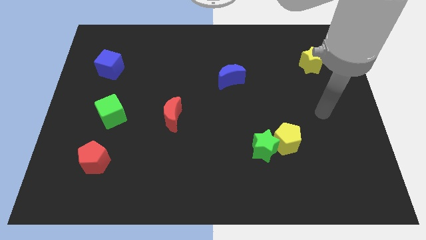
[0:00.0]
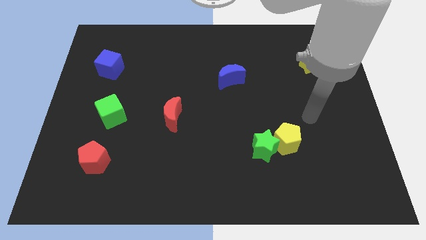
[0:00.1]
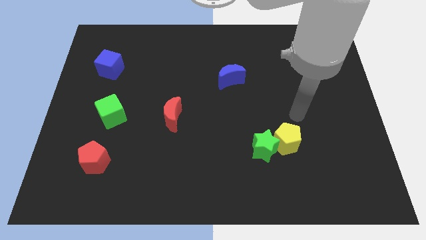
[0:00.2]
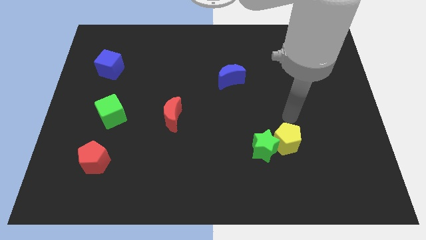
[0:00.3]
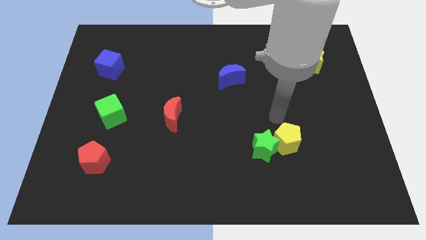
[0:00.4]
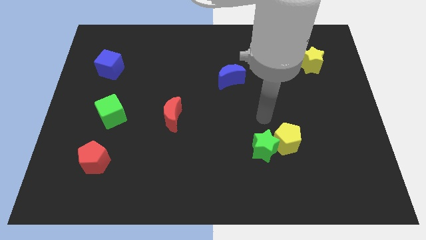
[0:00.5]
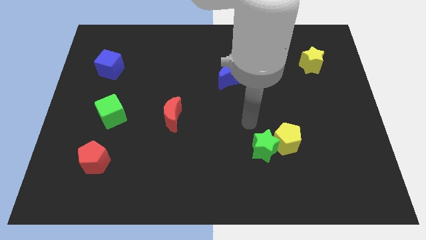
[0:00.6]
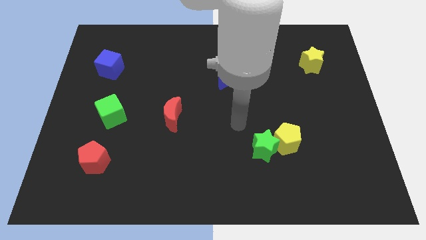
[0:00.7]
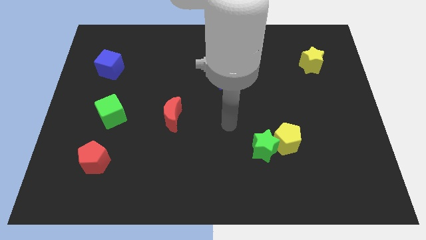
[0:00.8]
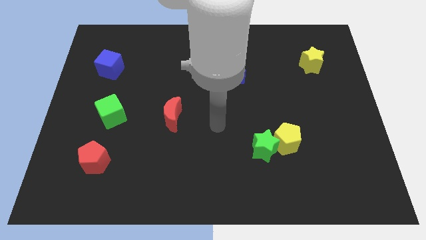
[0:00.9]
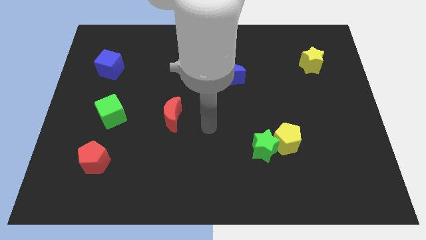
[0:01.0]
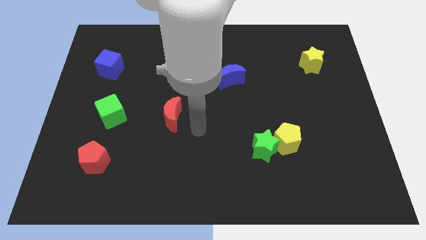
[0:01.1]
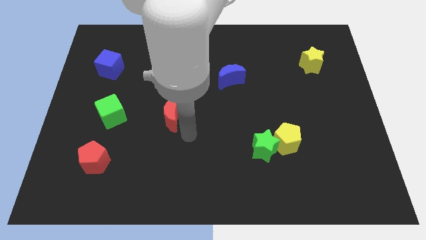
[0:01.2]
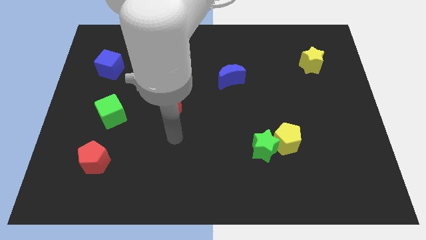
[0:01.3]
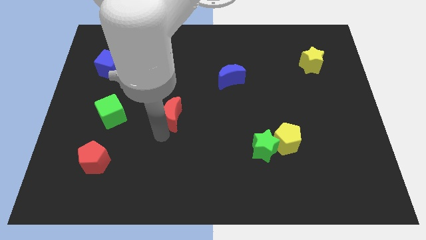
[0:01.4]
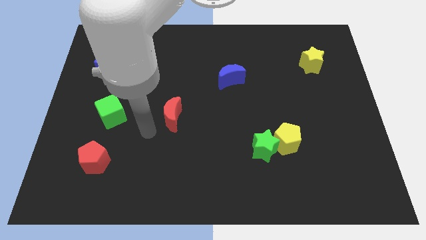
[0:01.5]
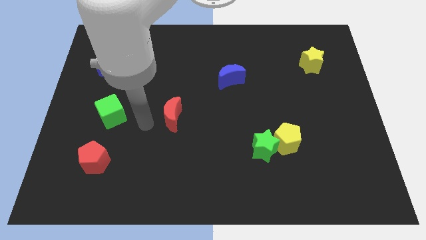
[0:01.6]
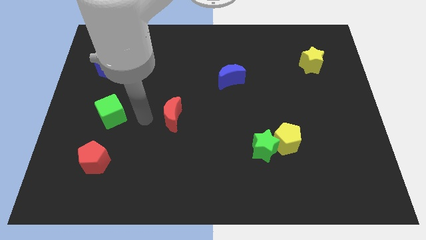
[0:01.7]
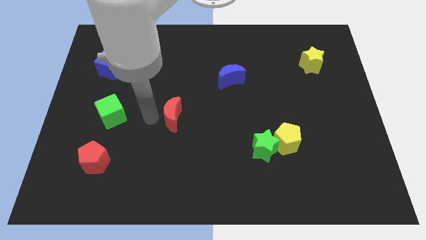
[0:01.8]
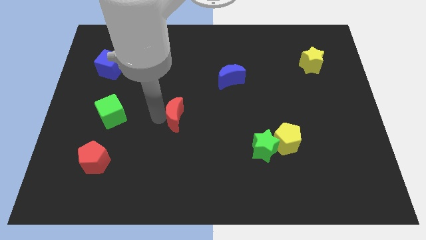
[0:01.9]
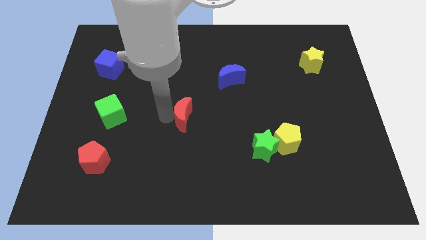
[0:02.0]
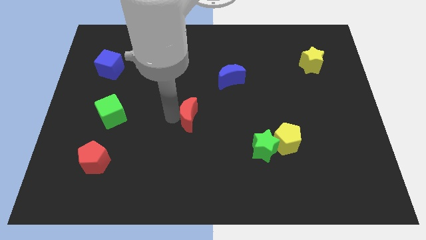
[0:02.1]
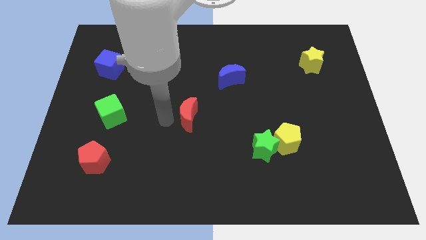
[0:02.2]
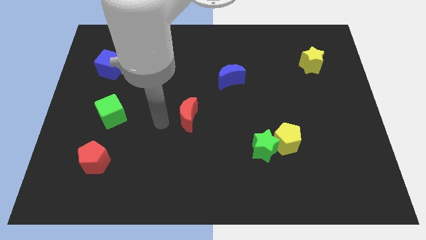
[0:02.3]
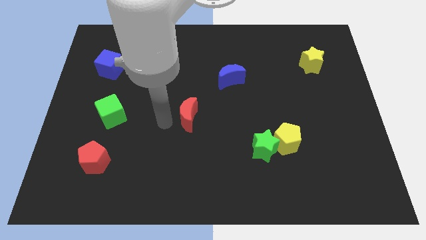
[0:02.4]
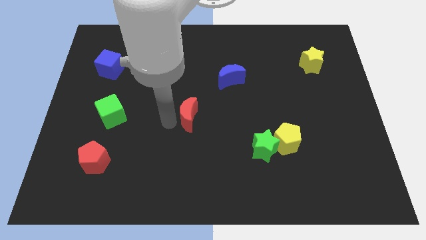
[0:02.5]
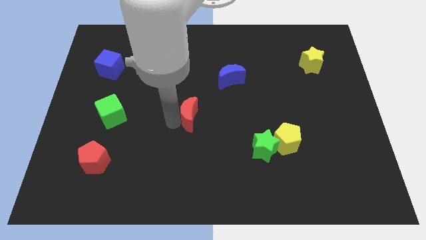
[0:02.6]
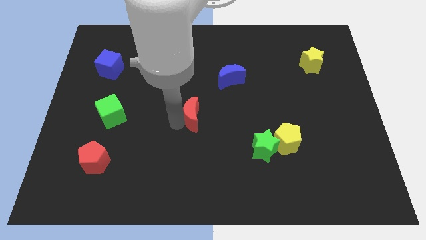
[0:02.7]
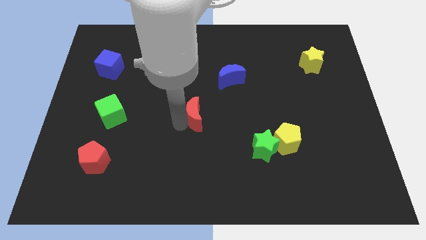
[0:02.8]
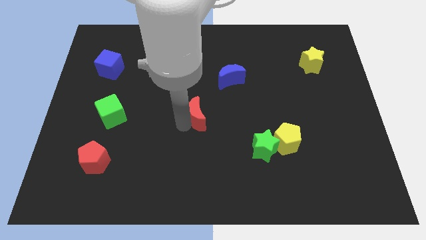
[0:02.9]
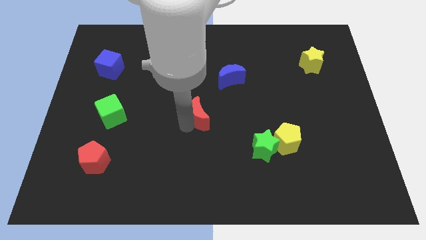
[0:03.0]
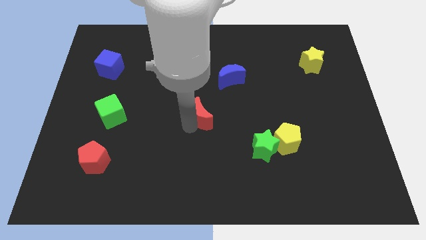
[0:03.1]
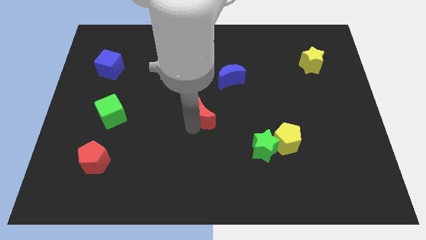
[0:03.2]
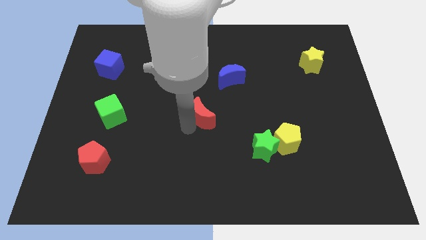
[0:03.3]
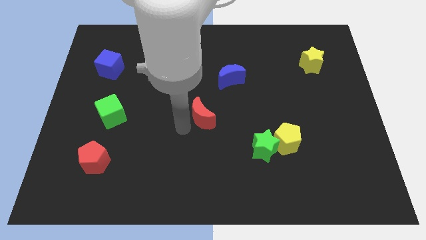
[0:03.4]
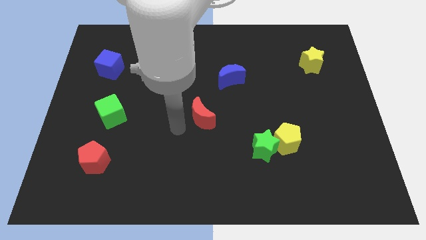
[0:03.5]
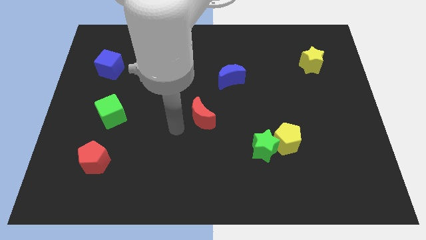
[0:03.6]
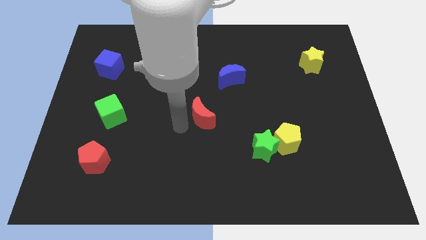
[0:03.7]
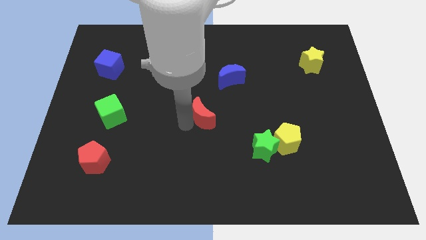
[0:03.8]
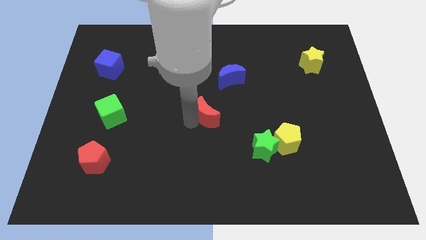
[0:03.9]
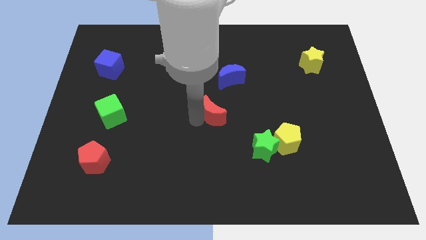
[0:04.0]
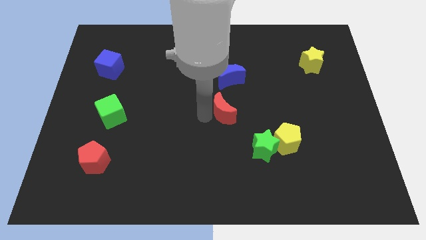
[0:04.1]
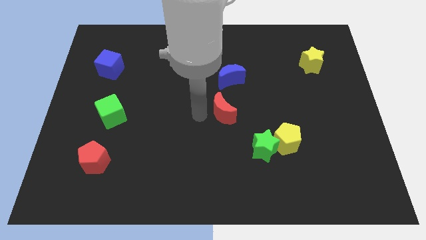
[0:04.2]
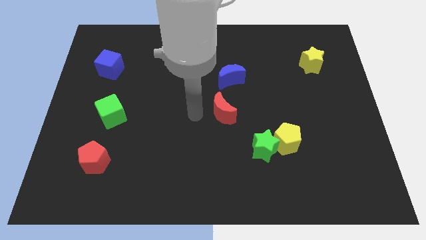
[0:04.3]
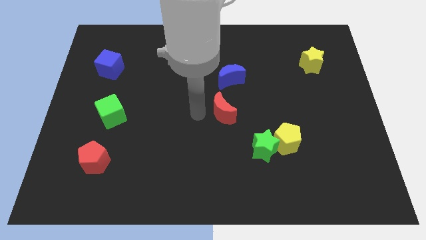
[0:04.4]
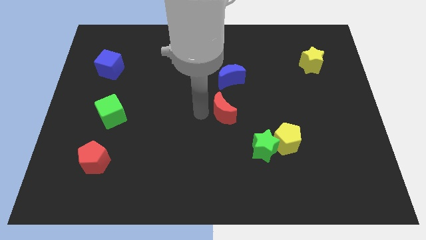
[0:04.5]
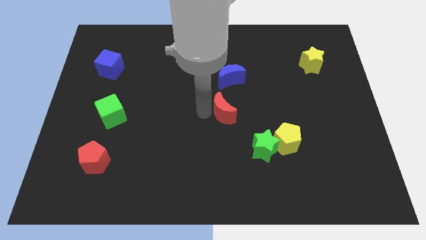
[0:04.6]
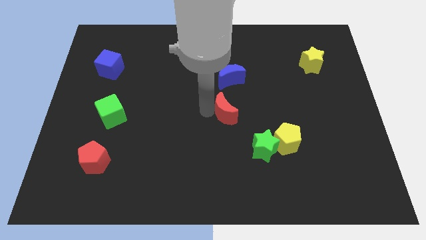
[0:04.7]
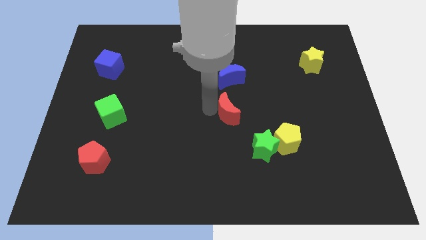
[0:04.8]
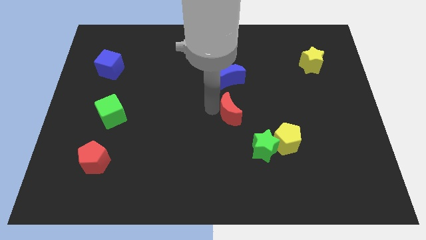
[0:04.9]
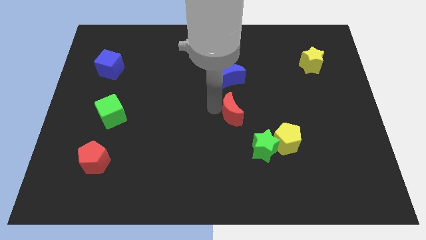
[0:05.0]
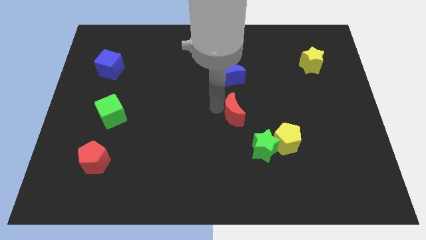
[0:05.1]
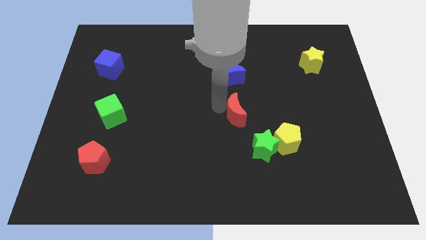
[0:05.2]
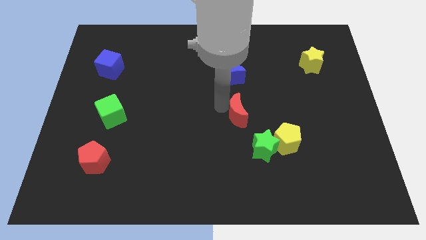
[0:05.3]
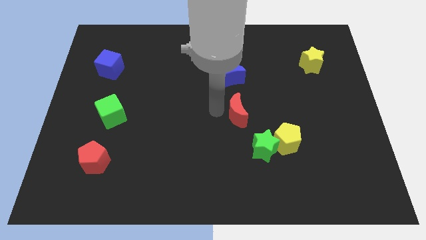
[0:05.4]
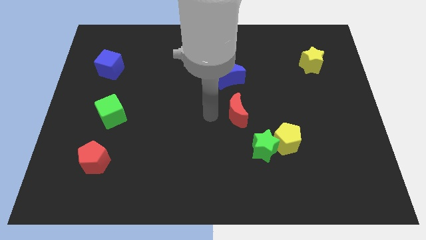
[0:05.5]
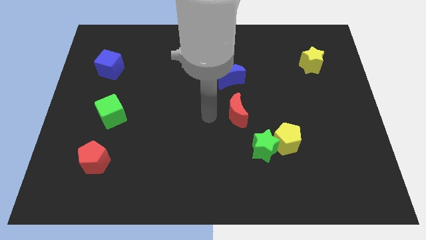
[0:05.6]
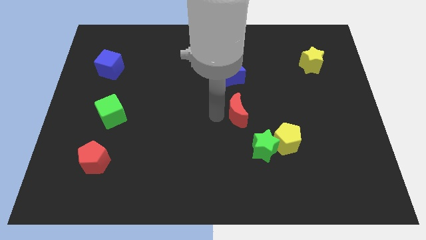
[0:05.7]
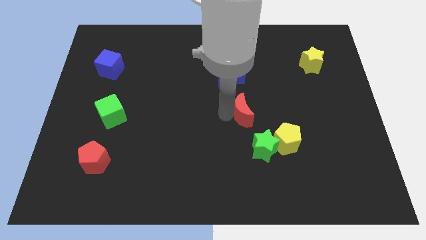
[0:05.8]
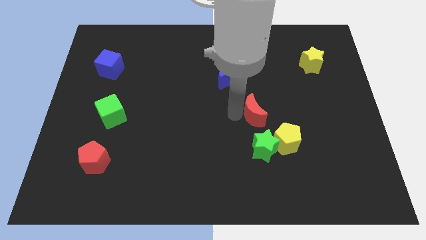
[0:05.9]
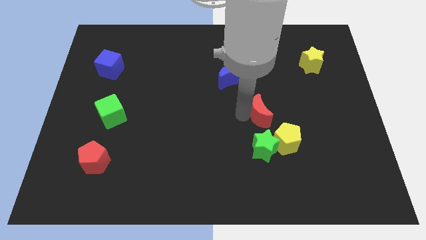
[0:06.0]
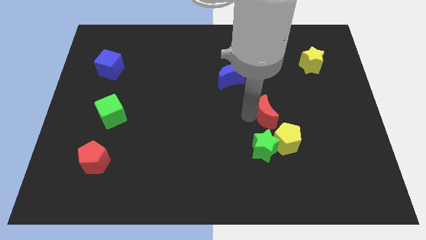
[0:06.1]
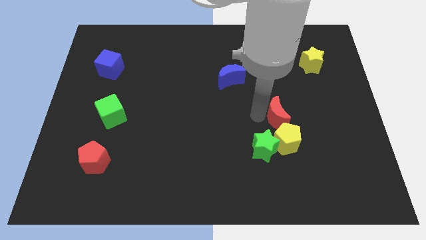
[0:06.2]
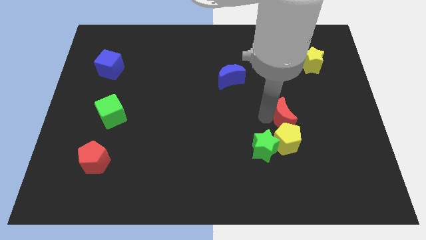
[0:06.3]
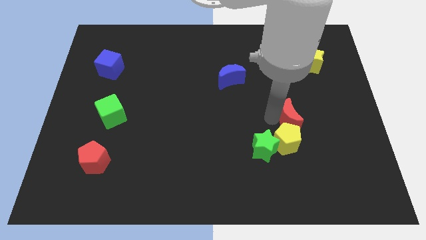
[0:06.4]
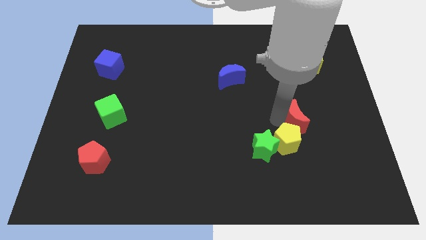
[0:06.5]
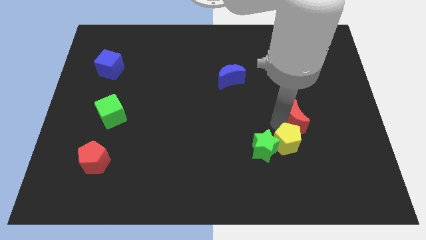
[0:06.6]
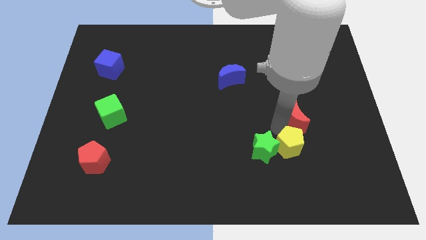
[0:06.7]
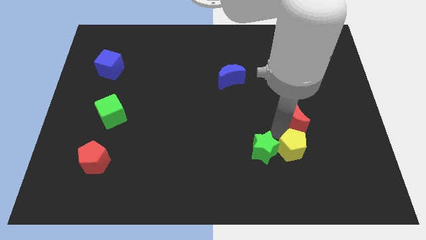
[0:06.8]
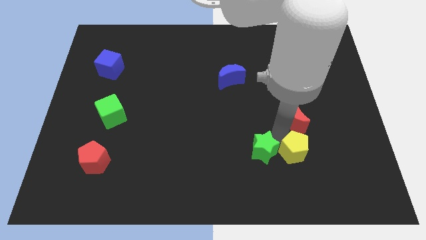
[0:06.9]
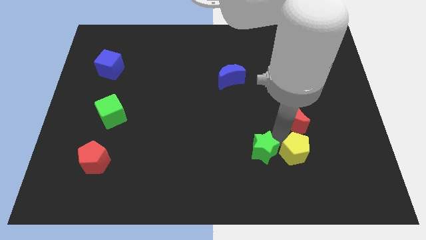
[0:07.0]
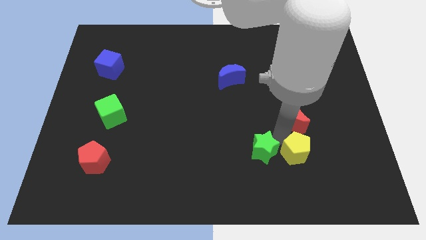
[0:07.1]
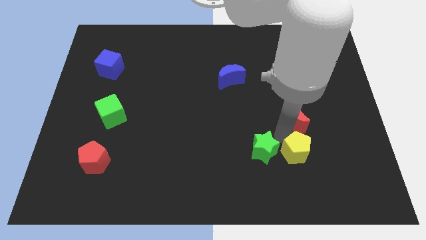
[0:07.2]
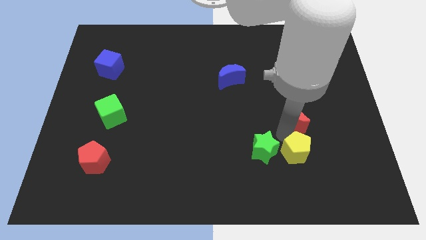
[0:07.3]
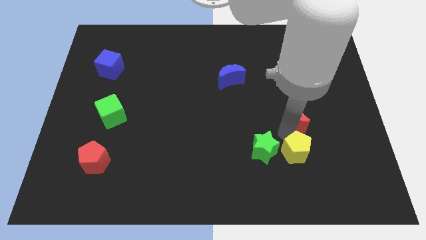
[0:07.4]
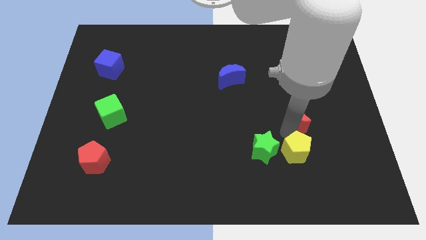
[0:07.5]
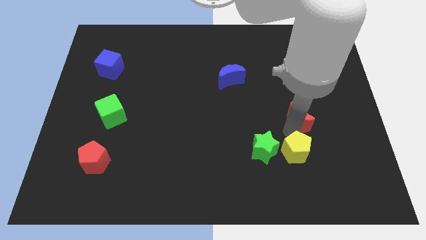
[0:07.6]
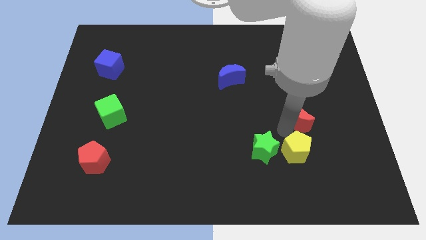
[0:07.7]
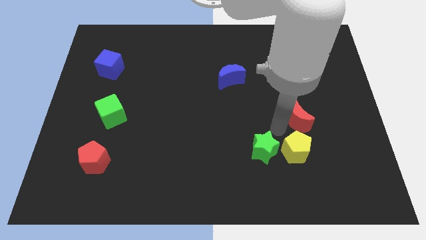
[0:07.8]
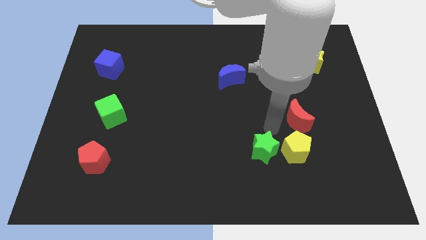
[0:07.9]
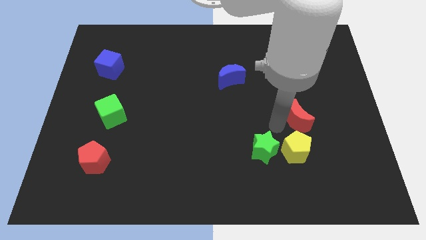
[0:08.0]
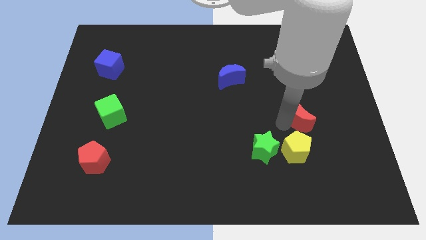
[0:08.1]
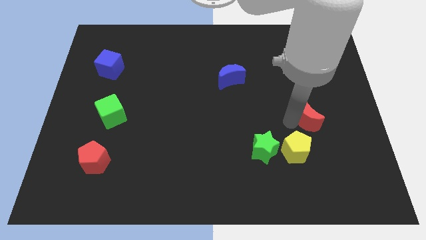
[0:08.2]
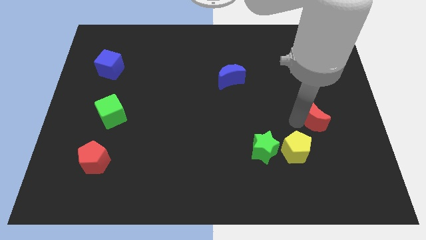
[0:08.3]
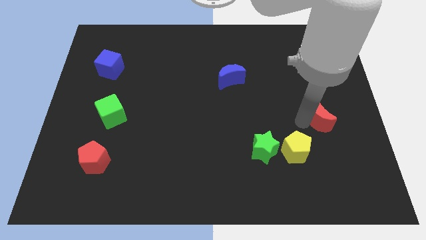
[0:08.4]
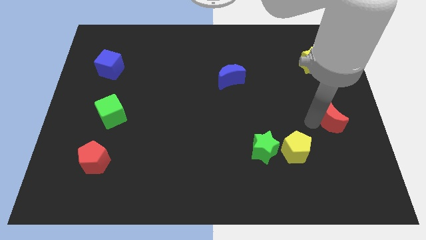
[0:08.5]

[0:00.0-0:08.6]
push the red moon to the center right
